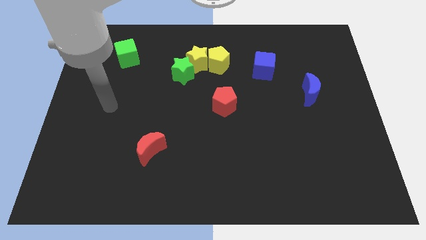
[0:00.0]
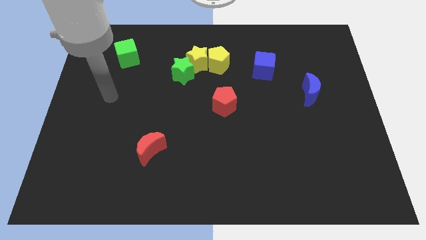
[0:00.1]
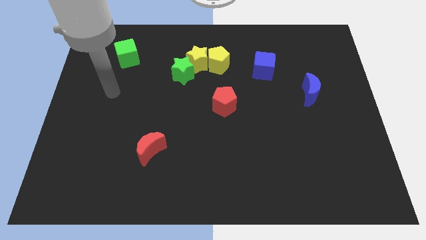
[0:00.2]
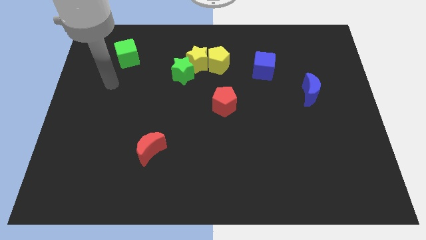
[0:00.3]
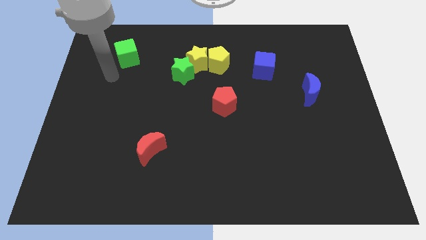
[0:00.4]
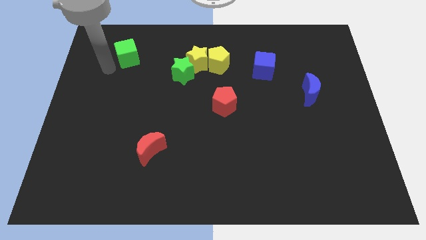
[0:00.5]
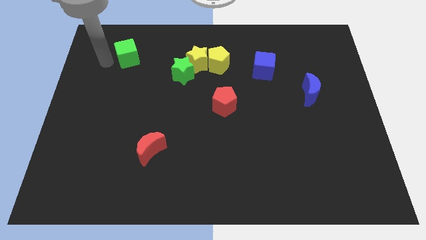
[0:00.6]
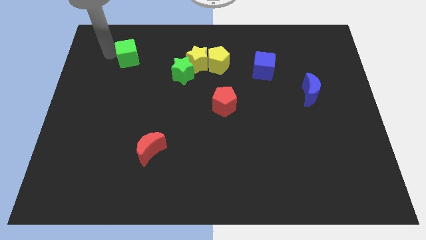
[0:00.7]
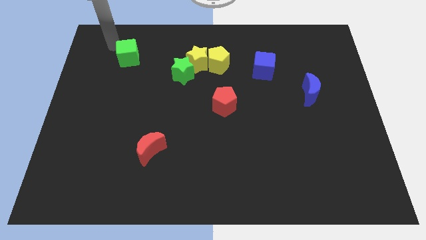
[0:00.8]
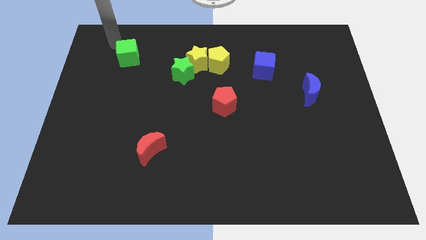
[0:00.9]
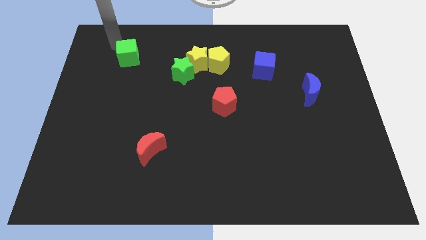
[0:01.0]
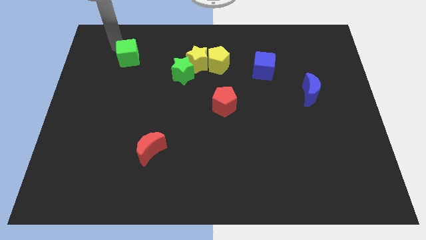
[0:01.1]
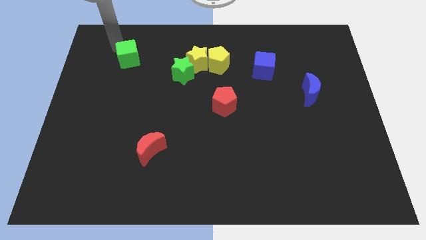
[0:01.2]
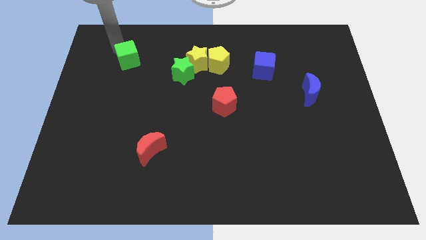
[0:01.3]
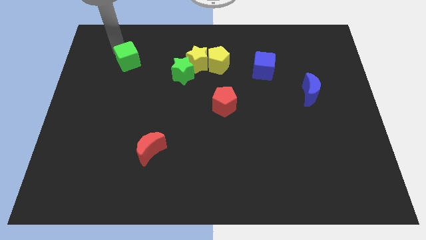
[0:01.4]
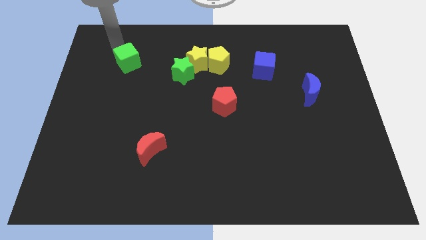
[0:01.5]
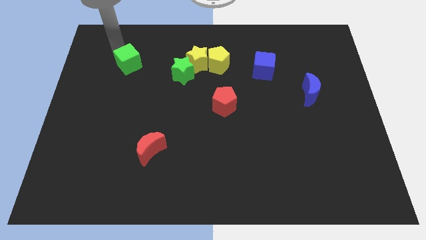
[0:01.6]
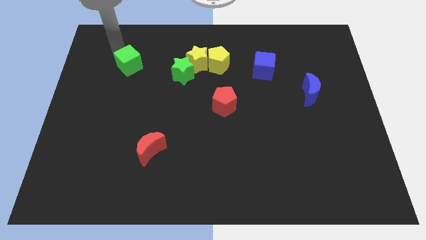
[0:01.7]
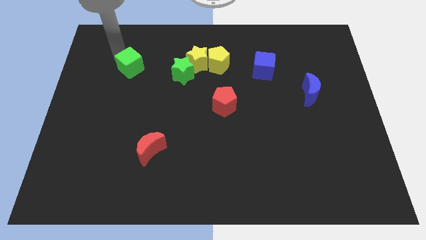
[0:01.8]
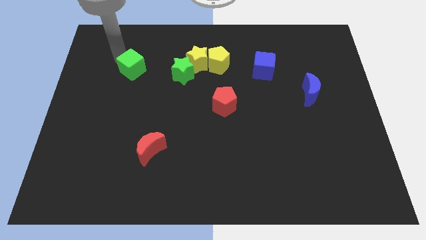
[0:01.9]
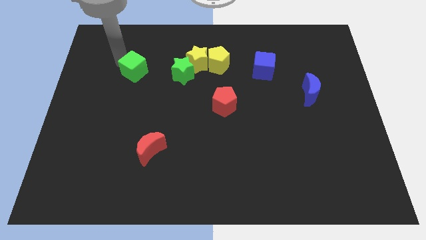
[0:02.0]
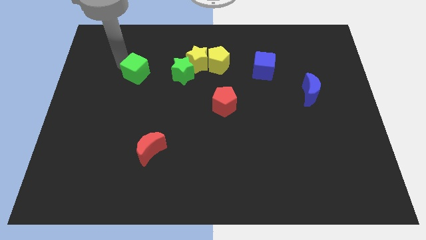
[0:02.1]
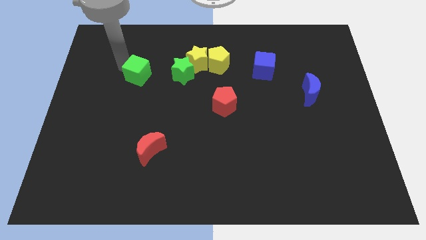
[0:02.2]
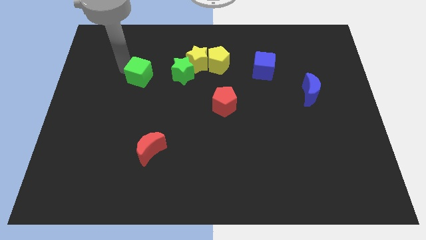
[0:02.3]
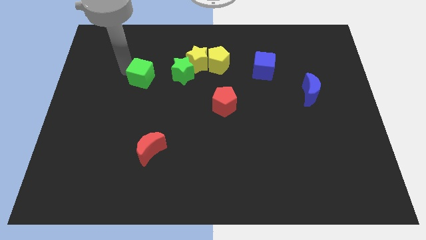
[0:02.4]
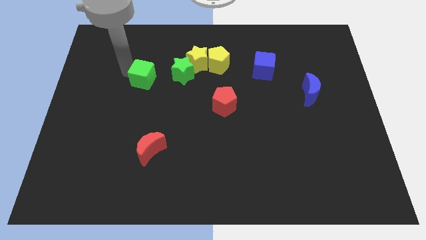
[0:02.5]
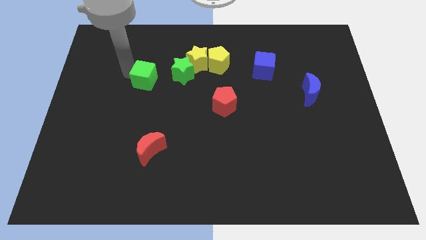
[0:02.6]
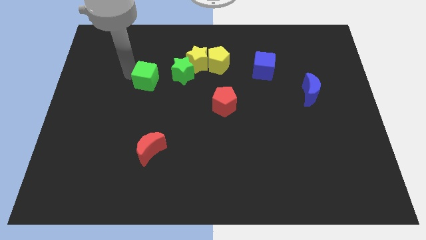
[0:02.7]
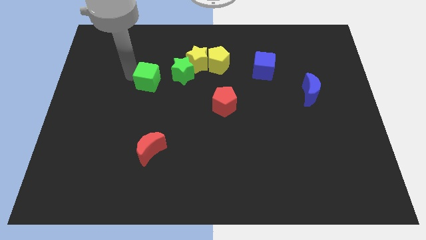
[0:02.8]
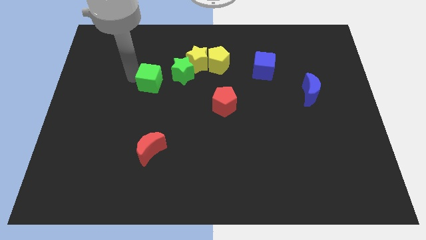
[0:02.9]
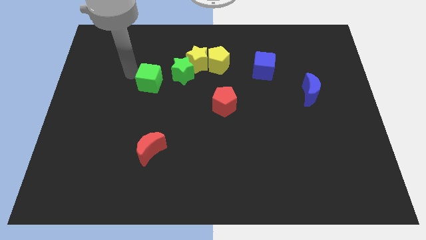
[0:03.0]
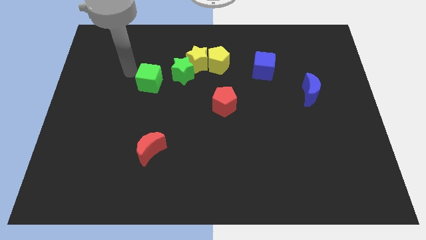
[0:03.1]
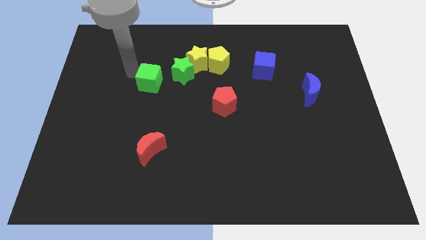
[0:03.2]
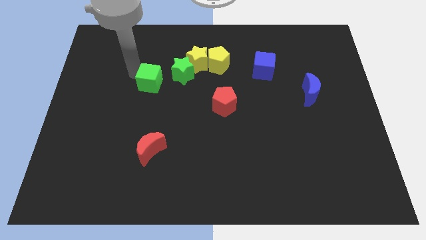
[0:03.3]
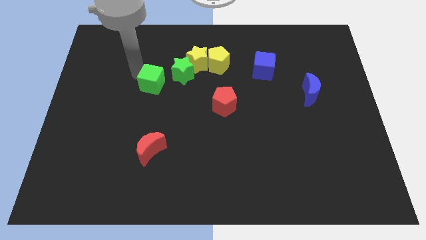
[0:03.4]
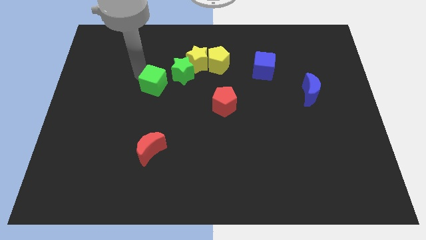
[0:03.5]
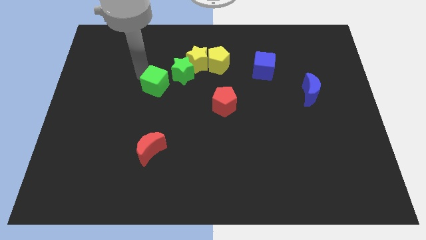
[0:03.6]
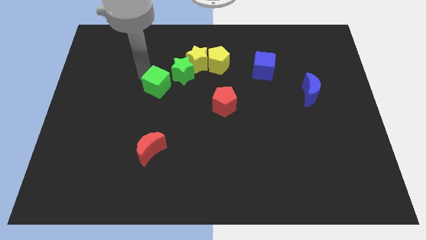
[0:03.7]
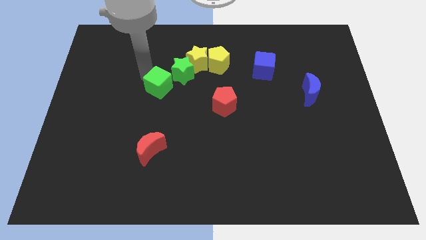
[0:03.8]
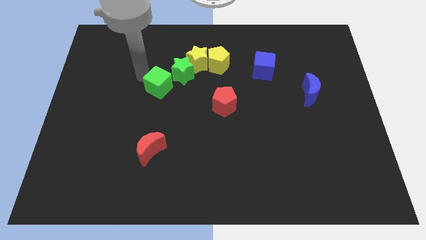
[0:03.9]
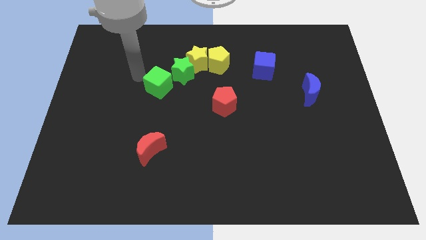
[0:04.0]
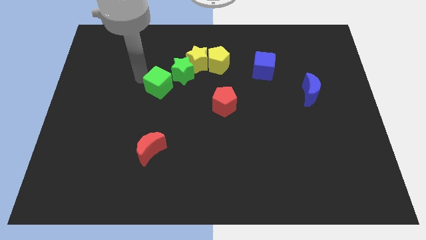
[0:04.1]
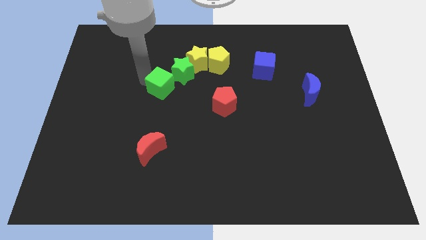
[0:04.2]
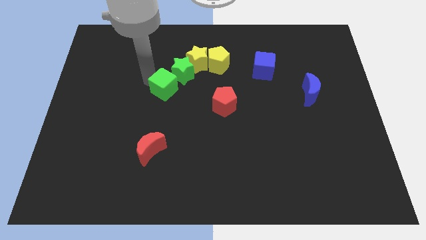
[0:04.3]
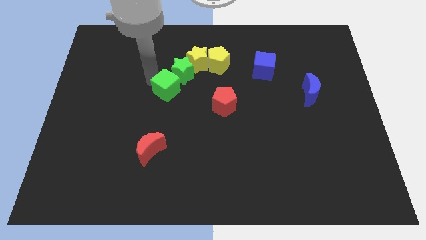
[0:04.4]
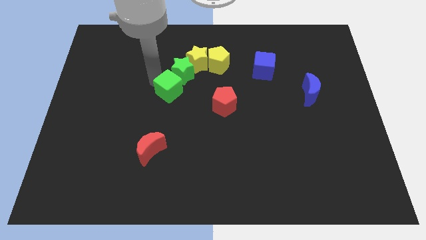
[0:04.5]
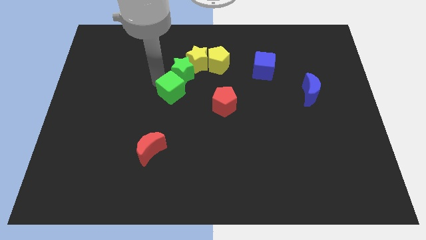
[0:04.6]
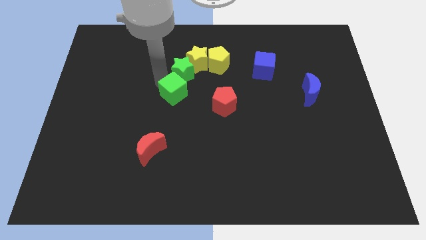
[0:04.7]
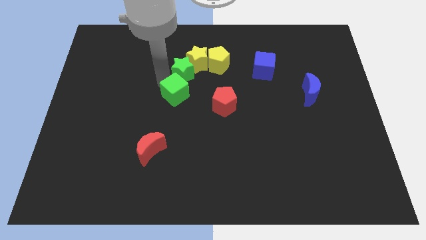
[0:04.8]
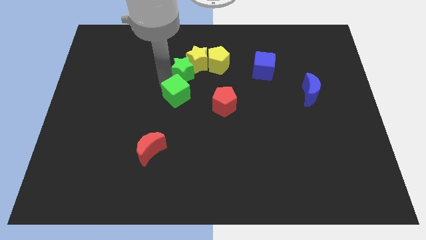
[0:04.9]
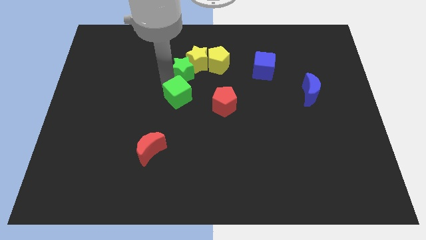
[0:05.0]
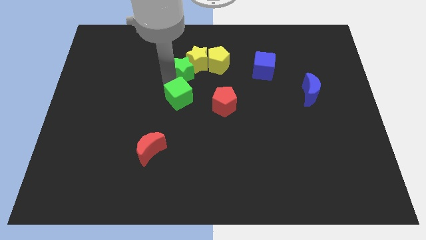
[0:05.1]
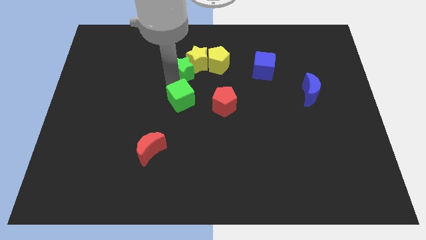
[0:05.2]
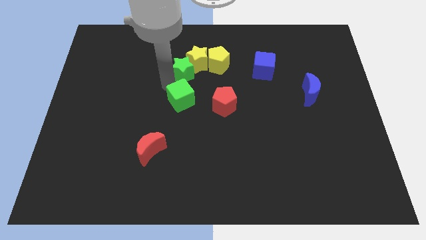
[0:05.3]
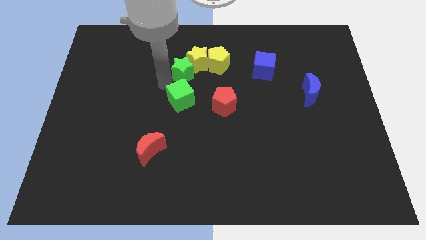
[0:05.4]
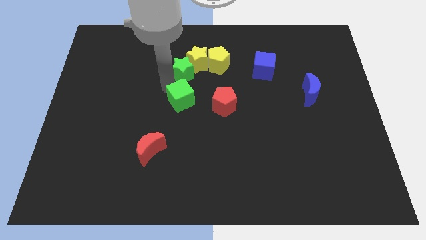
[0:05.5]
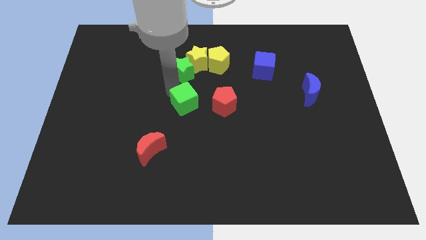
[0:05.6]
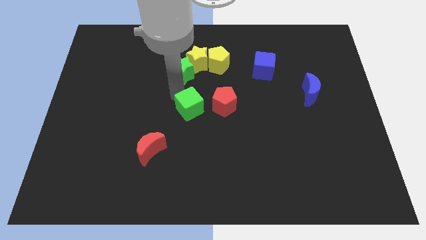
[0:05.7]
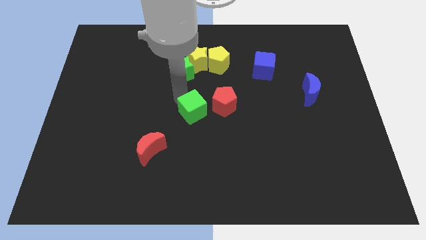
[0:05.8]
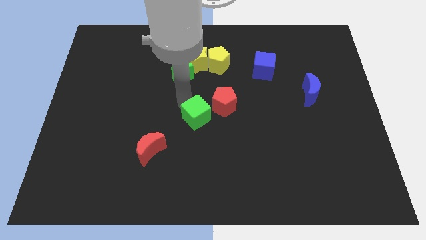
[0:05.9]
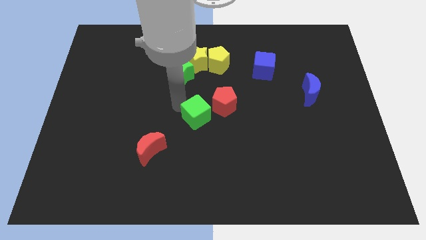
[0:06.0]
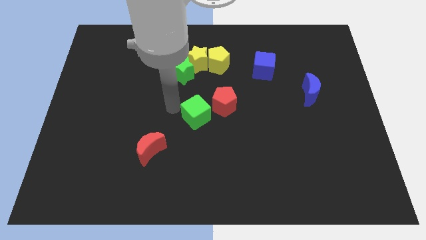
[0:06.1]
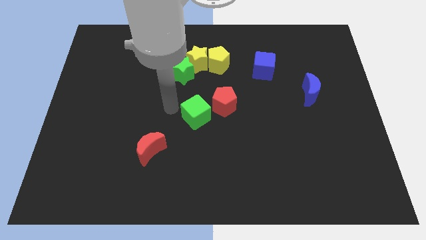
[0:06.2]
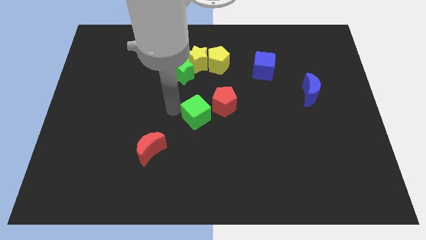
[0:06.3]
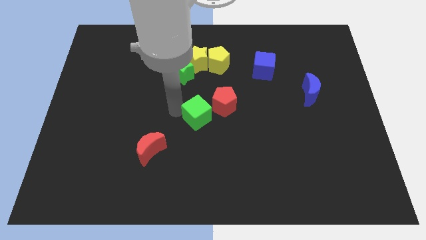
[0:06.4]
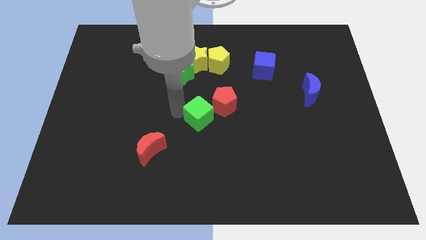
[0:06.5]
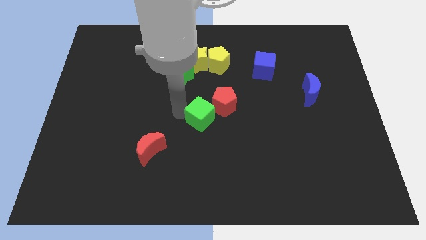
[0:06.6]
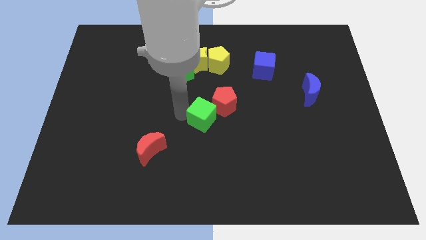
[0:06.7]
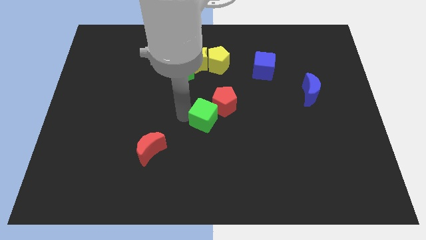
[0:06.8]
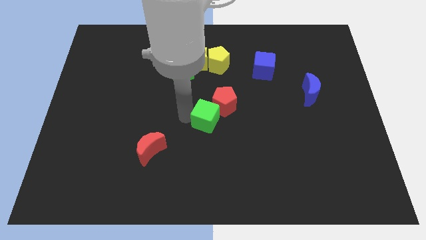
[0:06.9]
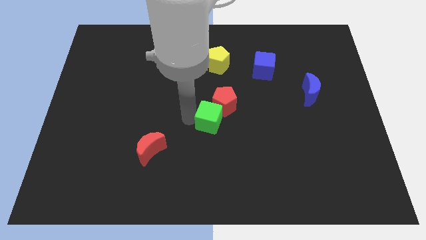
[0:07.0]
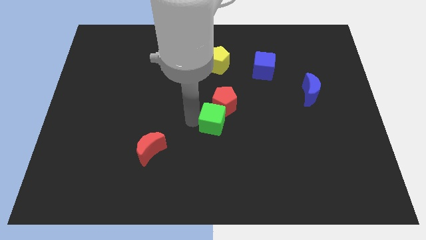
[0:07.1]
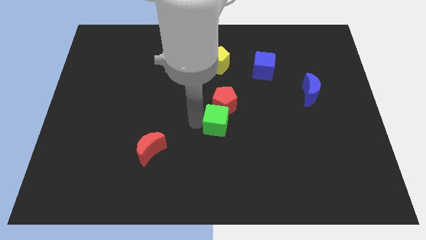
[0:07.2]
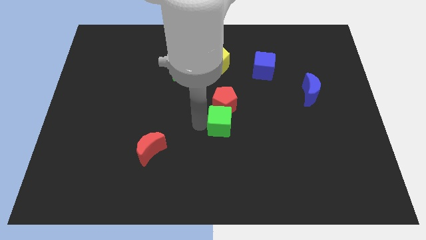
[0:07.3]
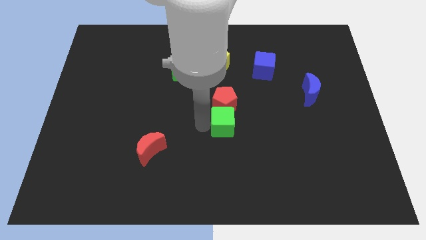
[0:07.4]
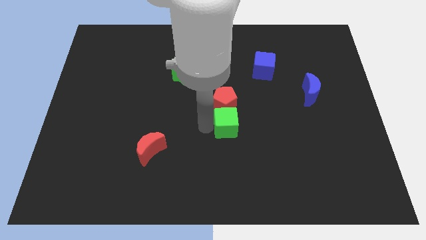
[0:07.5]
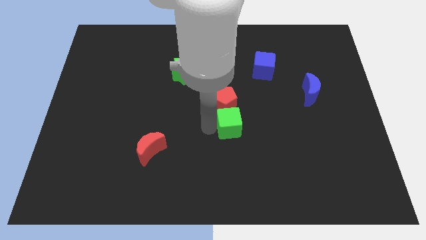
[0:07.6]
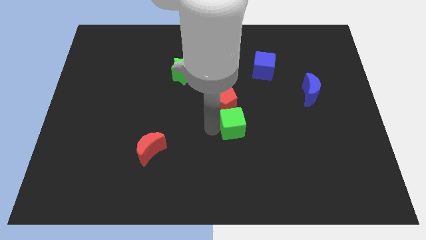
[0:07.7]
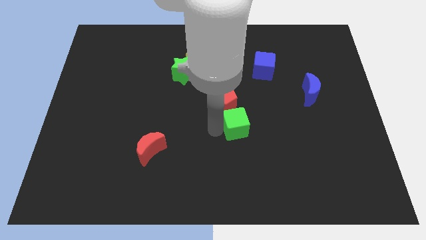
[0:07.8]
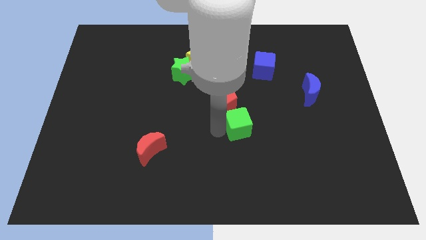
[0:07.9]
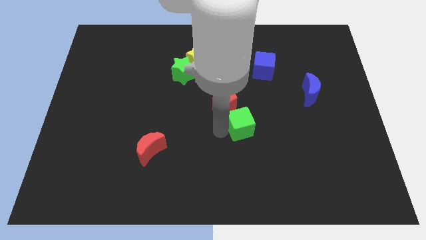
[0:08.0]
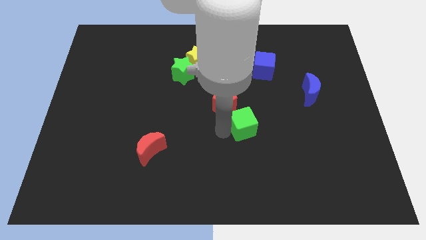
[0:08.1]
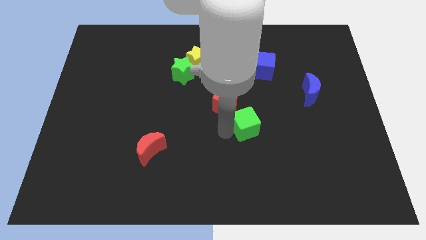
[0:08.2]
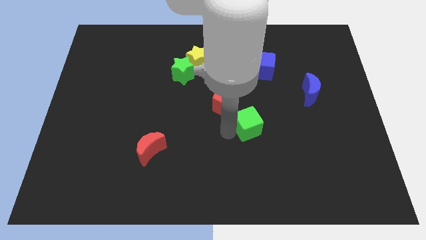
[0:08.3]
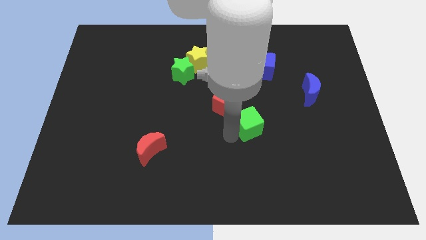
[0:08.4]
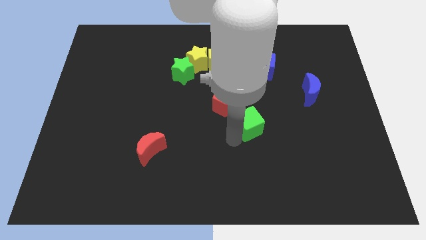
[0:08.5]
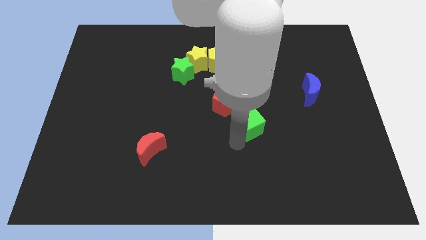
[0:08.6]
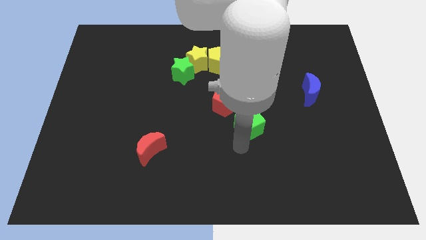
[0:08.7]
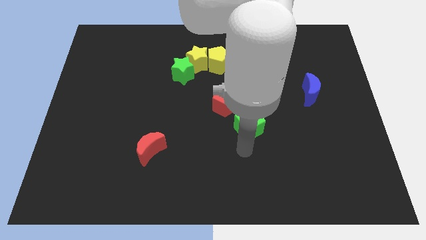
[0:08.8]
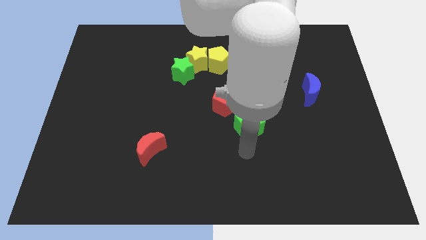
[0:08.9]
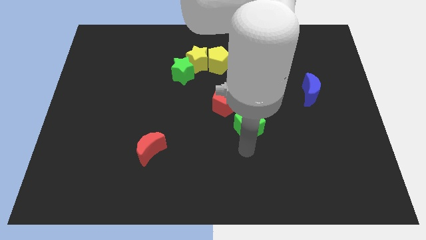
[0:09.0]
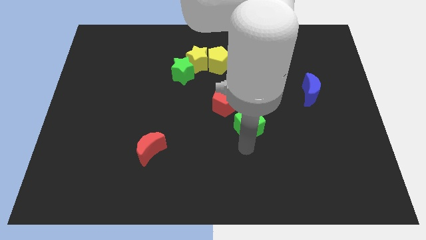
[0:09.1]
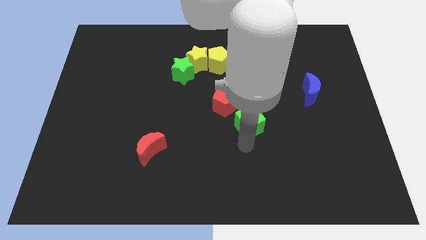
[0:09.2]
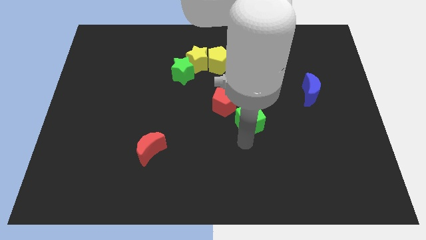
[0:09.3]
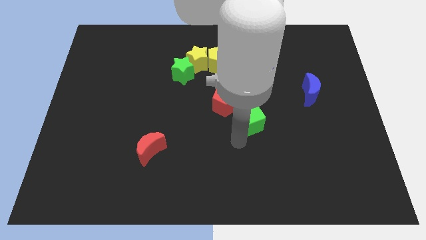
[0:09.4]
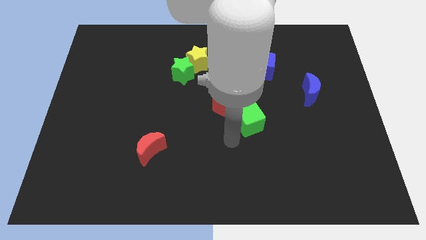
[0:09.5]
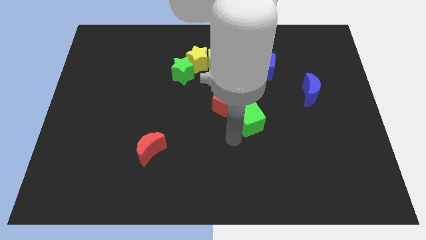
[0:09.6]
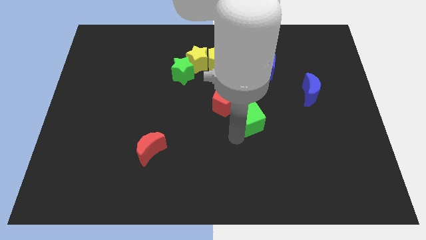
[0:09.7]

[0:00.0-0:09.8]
move the green cube to the right side of the red pentagon
